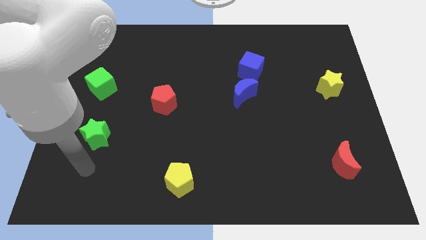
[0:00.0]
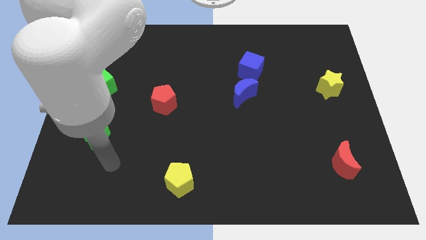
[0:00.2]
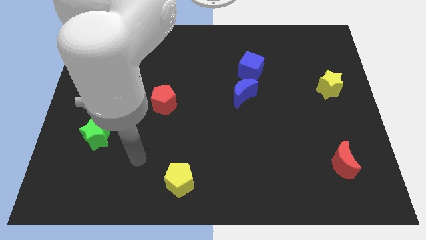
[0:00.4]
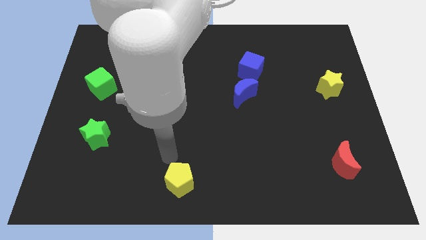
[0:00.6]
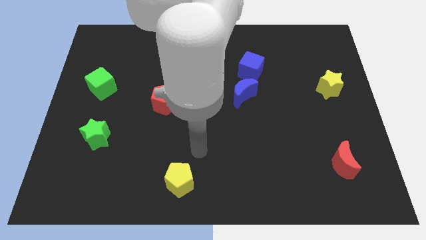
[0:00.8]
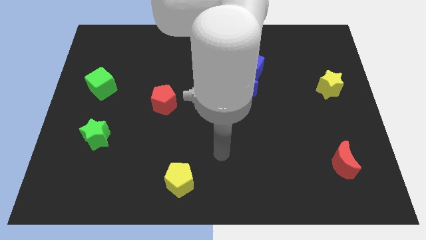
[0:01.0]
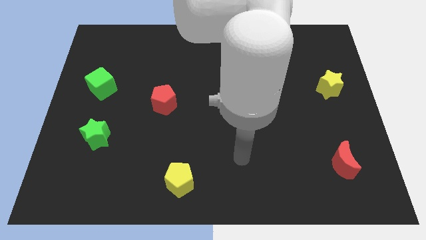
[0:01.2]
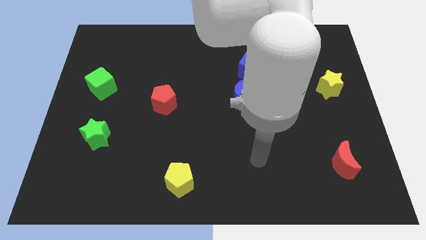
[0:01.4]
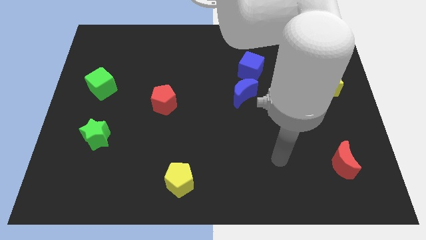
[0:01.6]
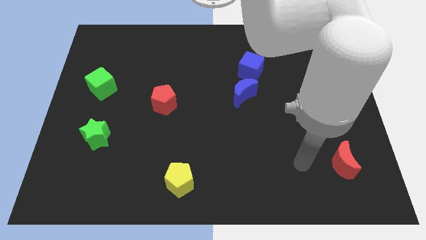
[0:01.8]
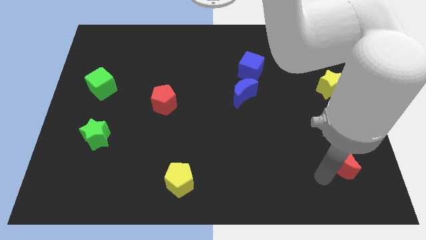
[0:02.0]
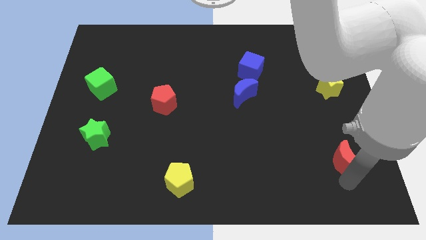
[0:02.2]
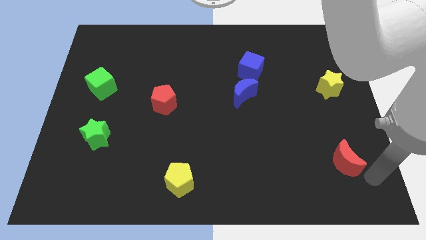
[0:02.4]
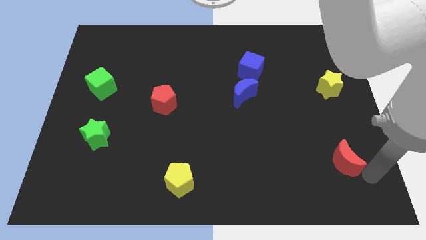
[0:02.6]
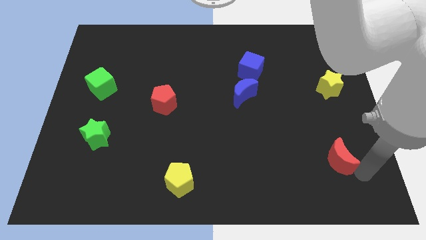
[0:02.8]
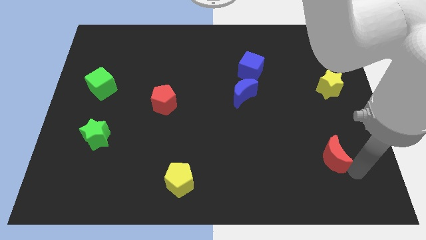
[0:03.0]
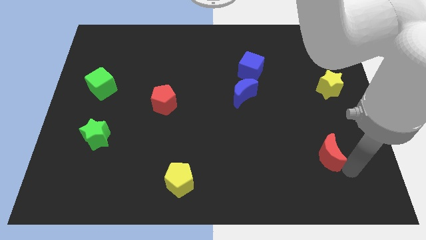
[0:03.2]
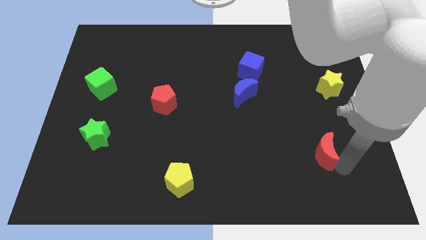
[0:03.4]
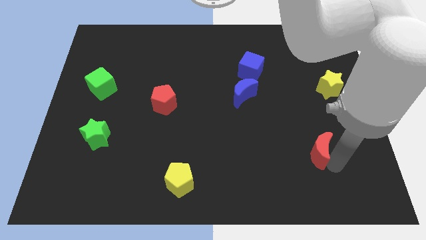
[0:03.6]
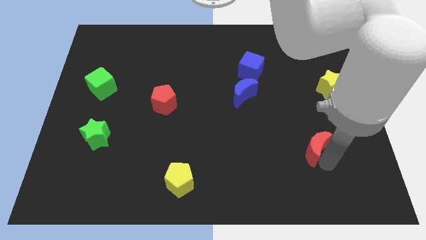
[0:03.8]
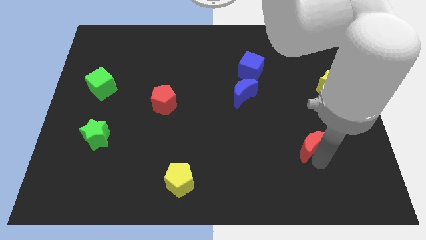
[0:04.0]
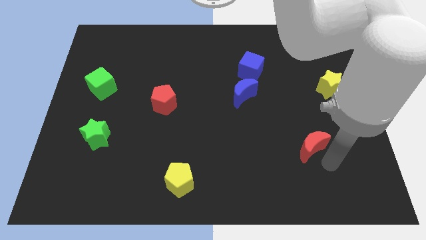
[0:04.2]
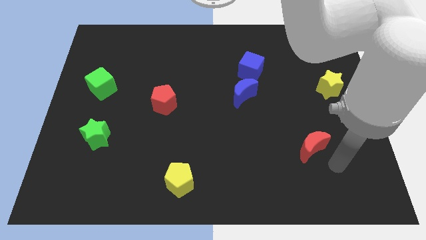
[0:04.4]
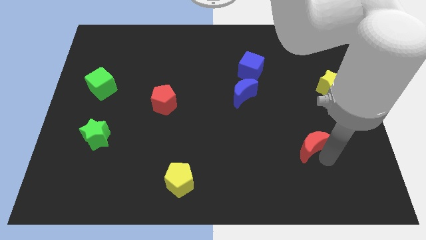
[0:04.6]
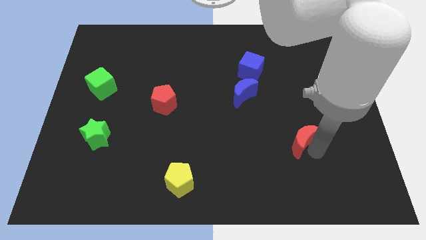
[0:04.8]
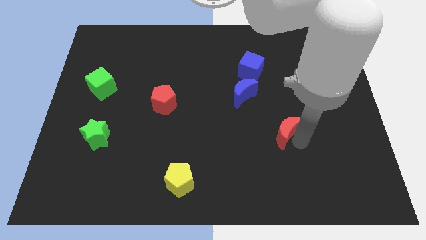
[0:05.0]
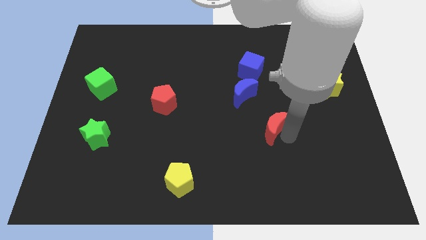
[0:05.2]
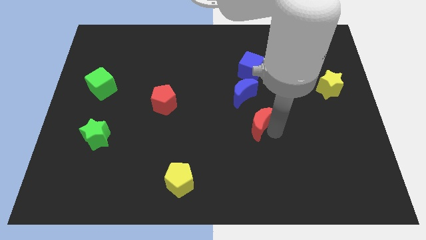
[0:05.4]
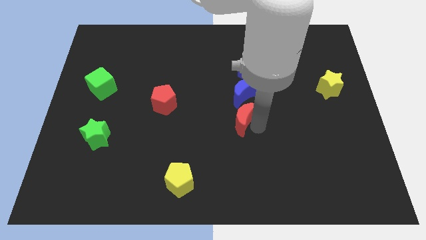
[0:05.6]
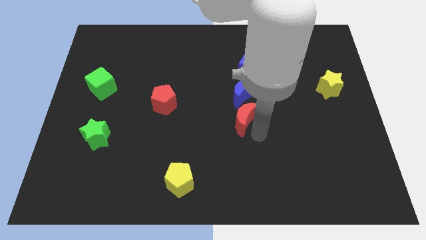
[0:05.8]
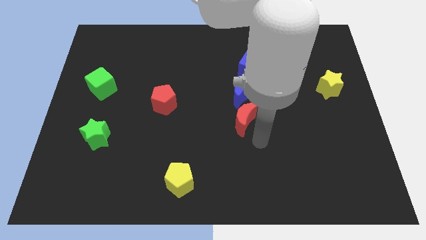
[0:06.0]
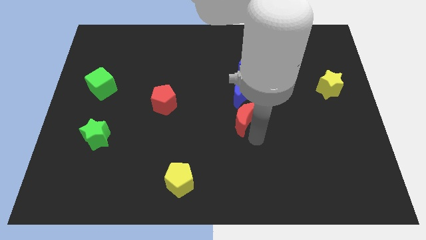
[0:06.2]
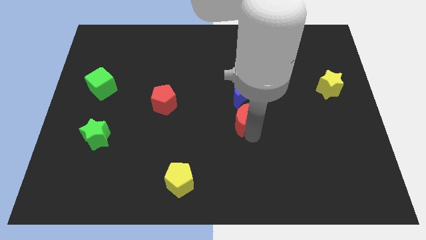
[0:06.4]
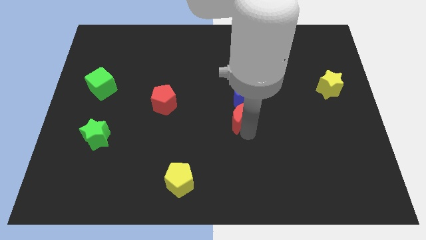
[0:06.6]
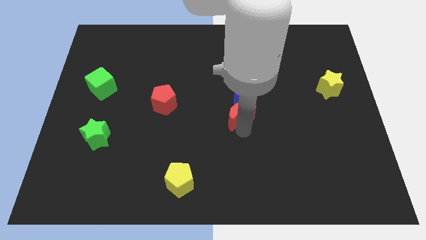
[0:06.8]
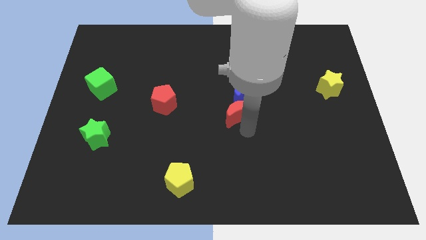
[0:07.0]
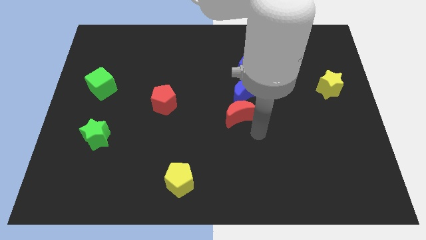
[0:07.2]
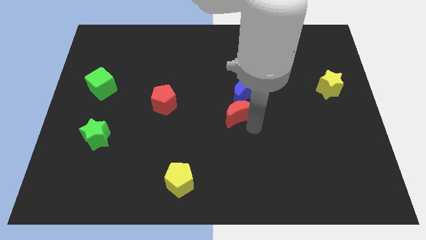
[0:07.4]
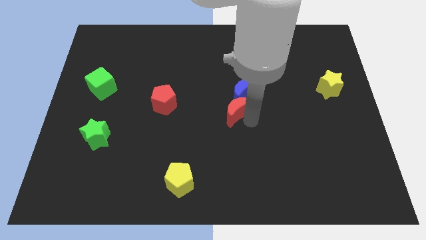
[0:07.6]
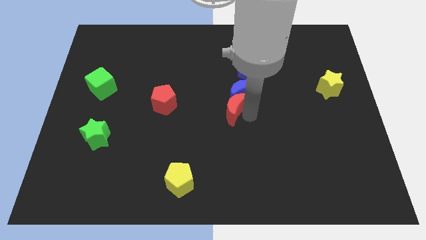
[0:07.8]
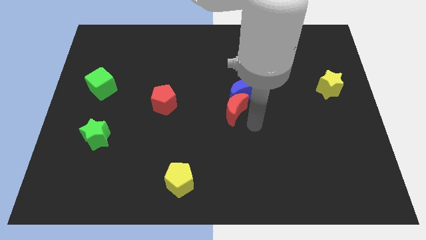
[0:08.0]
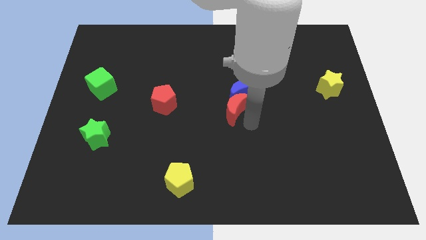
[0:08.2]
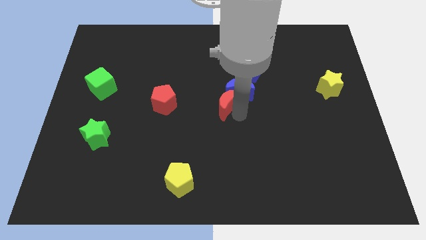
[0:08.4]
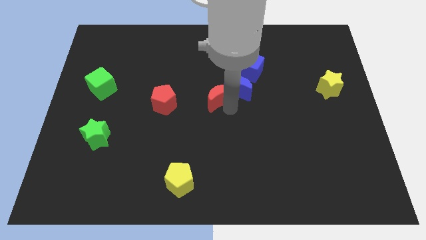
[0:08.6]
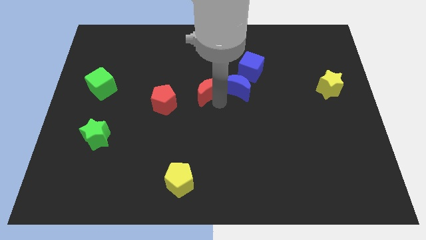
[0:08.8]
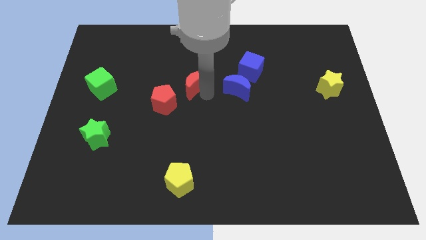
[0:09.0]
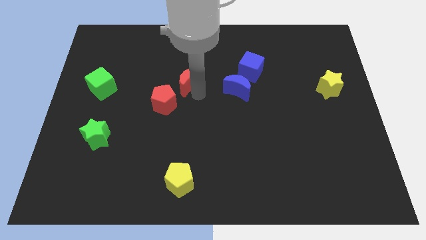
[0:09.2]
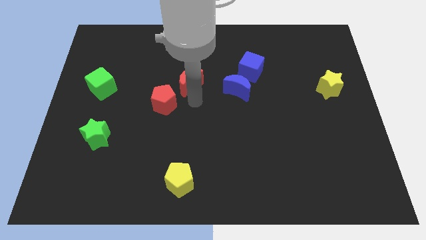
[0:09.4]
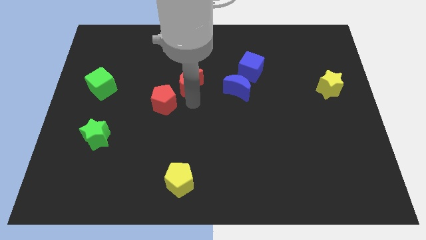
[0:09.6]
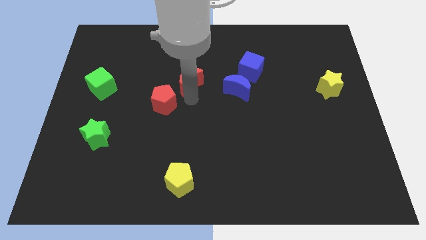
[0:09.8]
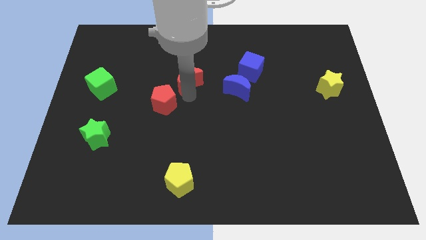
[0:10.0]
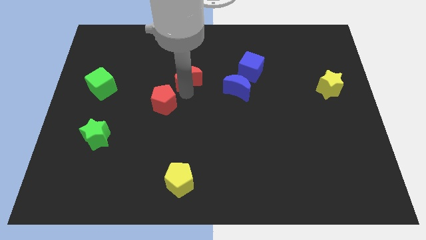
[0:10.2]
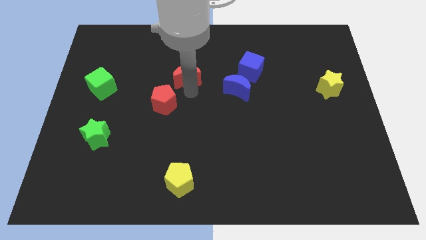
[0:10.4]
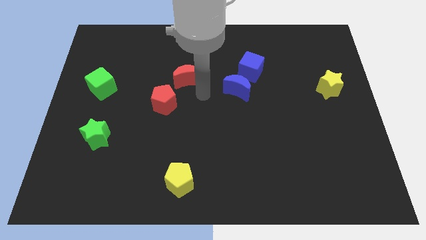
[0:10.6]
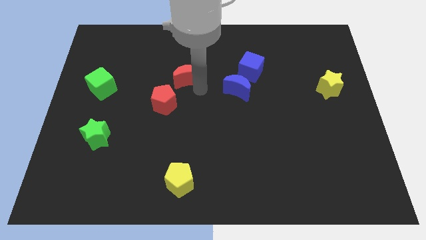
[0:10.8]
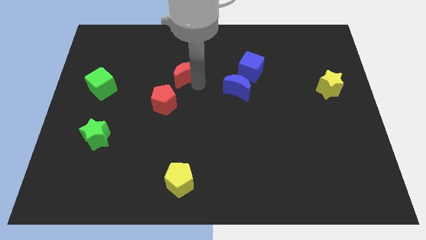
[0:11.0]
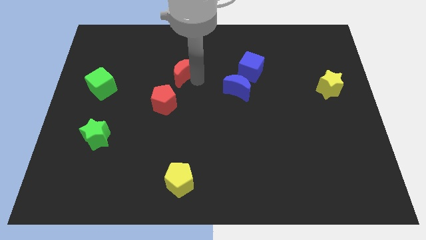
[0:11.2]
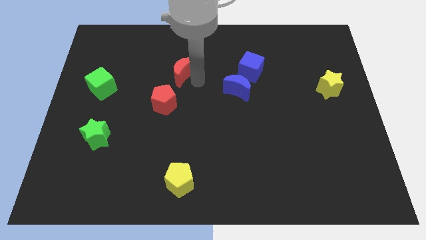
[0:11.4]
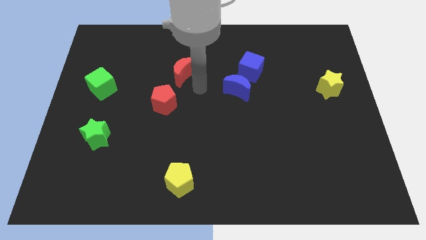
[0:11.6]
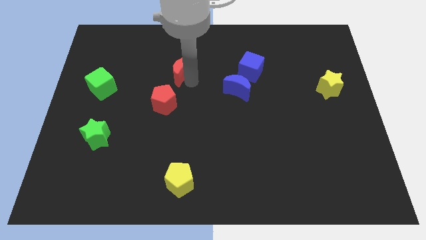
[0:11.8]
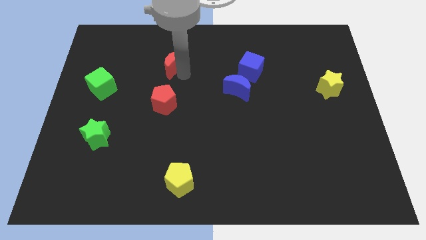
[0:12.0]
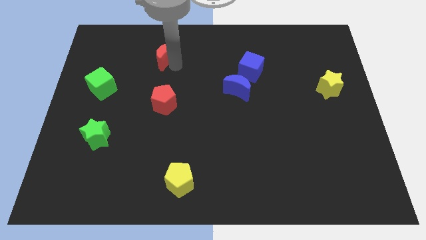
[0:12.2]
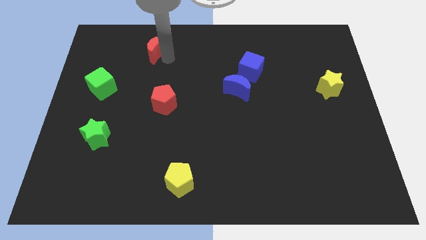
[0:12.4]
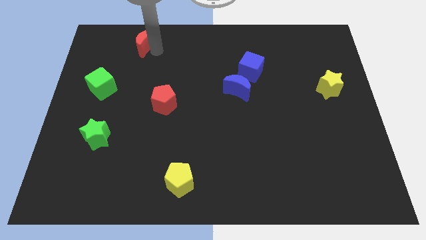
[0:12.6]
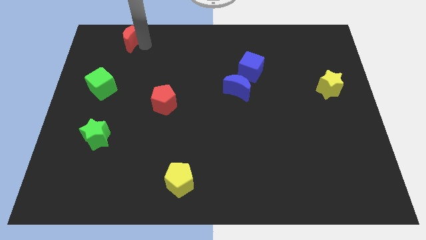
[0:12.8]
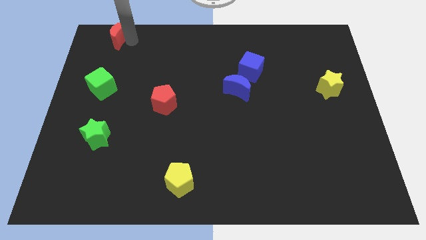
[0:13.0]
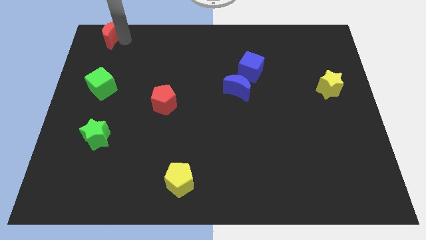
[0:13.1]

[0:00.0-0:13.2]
push the red moon to the top left of the board

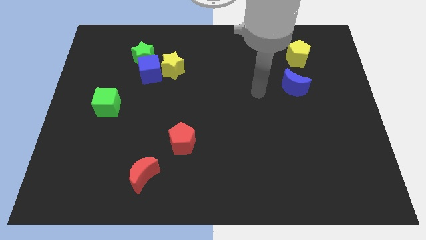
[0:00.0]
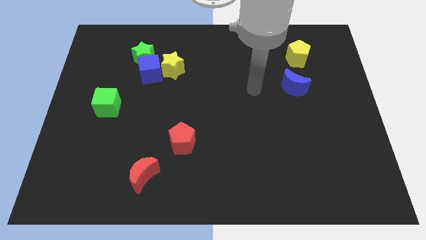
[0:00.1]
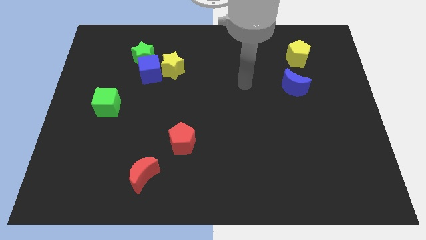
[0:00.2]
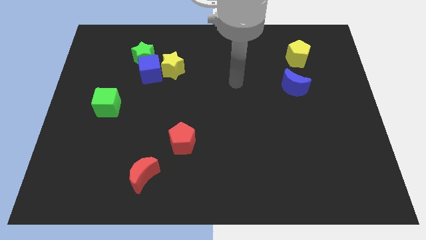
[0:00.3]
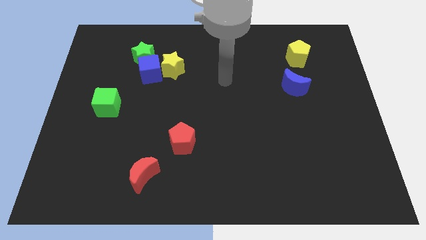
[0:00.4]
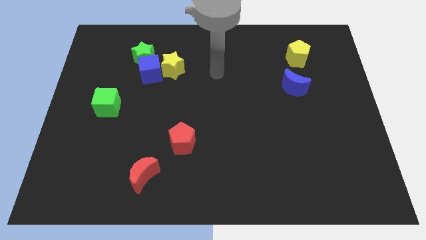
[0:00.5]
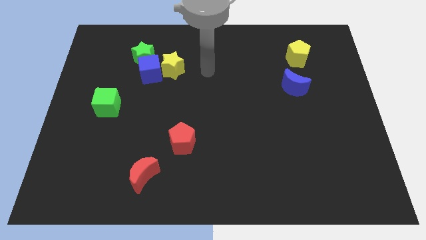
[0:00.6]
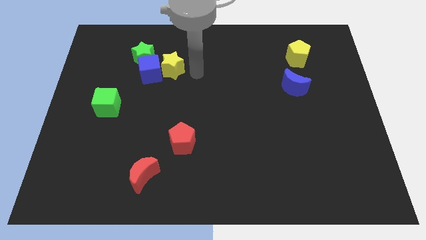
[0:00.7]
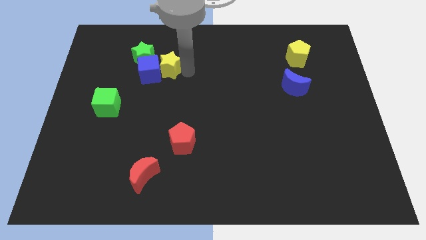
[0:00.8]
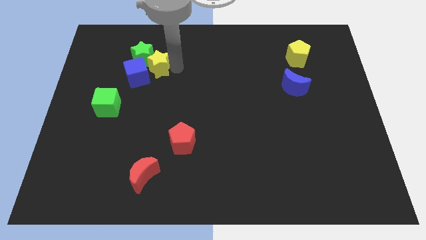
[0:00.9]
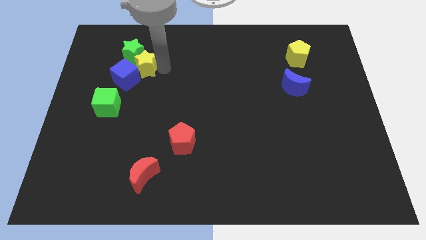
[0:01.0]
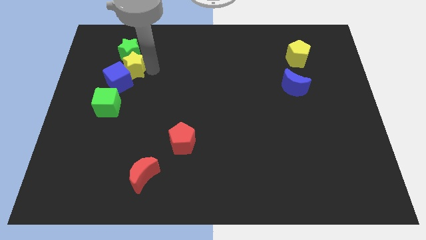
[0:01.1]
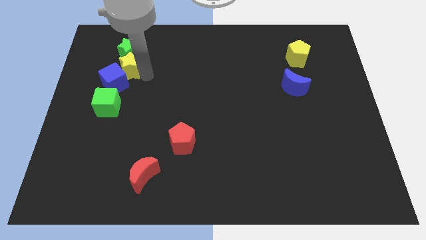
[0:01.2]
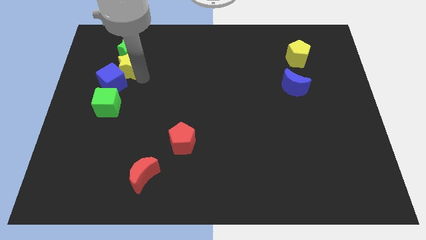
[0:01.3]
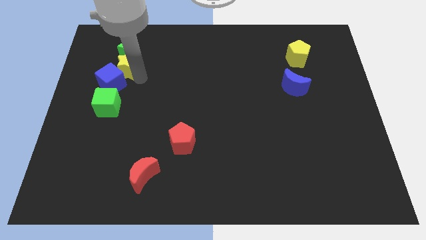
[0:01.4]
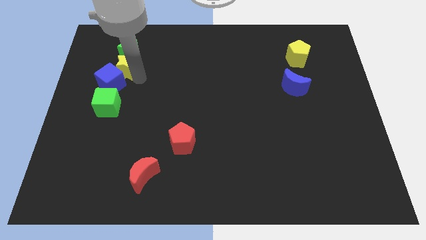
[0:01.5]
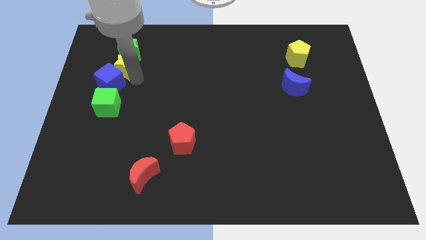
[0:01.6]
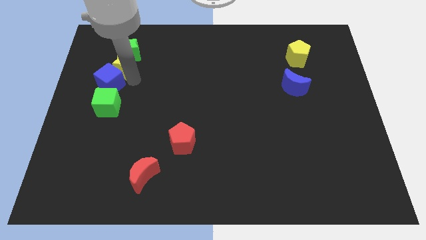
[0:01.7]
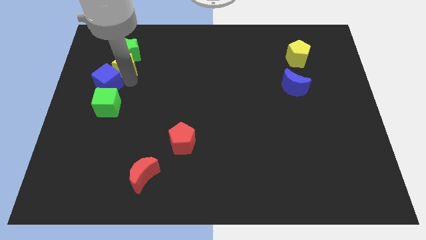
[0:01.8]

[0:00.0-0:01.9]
slide the blue cube to the center left
